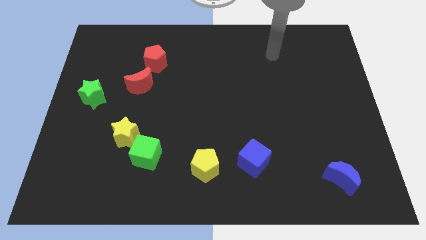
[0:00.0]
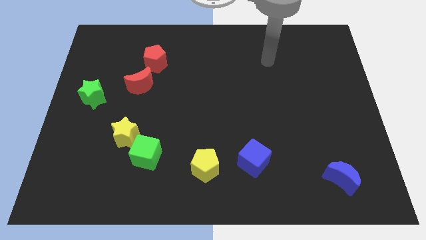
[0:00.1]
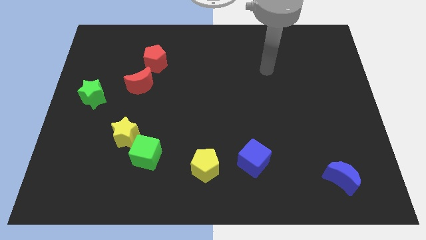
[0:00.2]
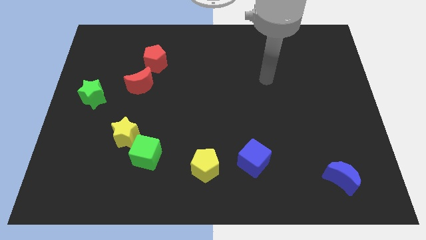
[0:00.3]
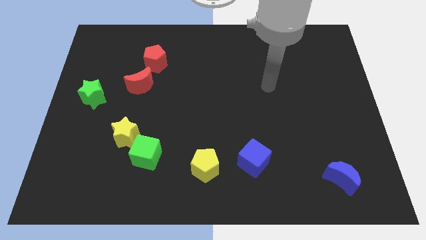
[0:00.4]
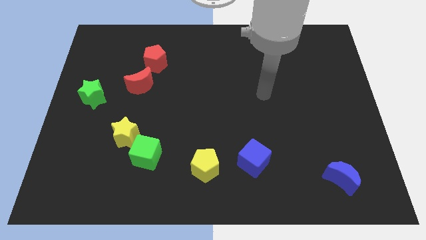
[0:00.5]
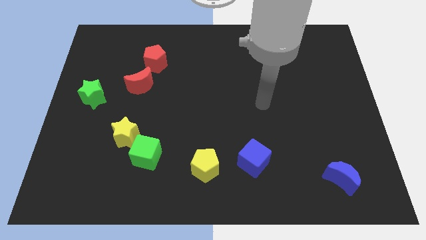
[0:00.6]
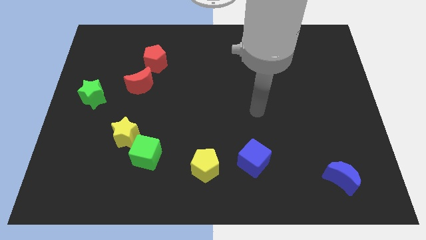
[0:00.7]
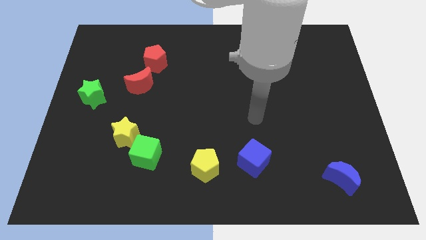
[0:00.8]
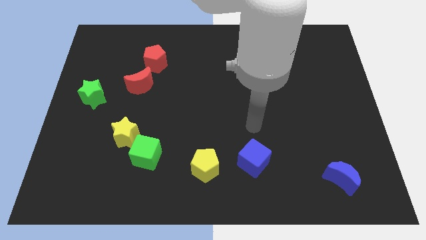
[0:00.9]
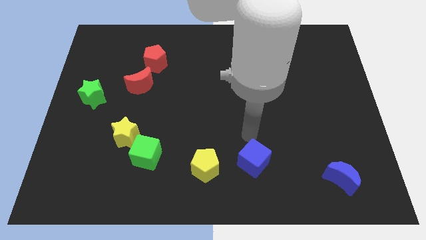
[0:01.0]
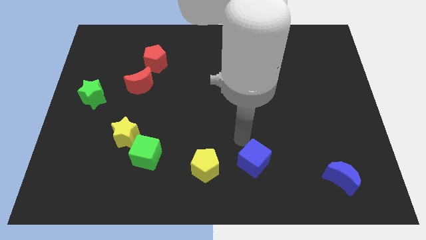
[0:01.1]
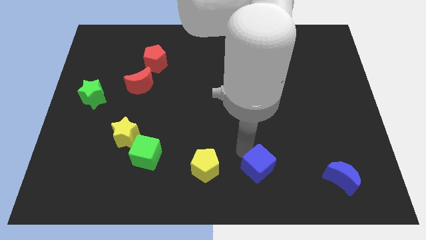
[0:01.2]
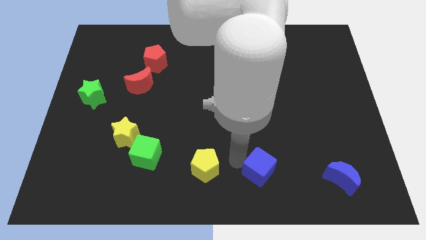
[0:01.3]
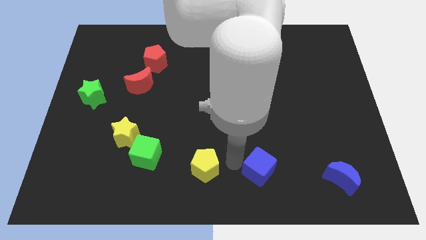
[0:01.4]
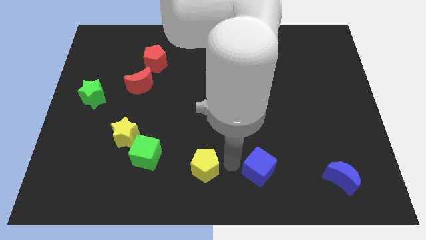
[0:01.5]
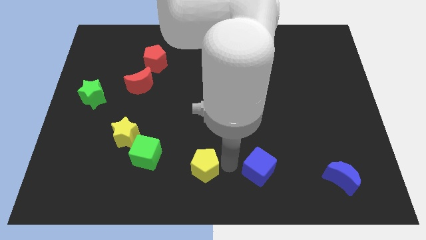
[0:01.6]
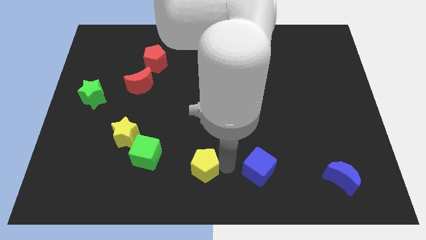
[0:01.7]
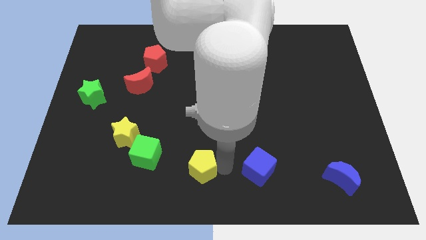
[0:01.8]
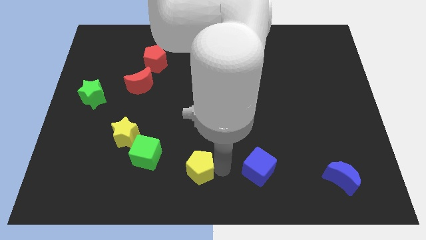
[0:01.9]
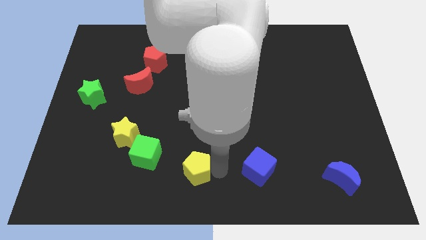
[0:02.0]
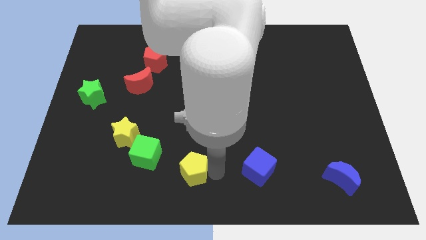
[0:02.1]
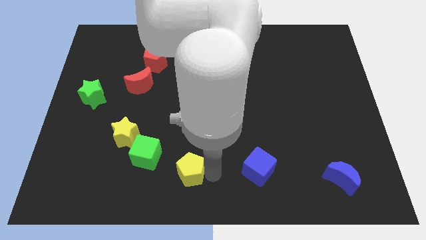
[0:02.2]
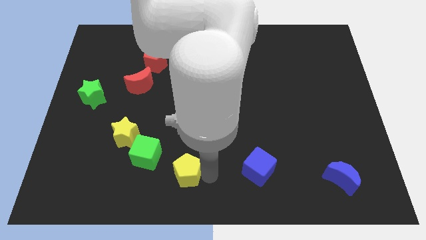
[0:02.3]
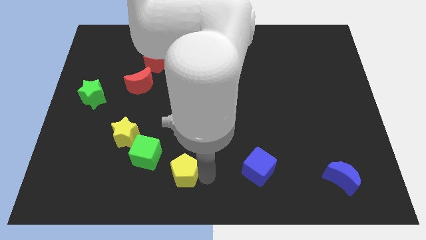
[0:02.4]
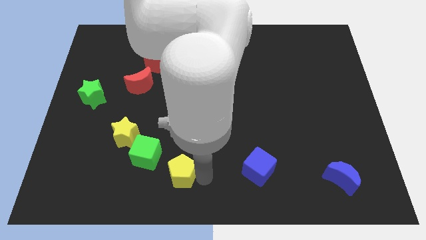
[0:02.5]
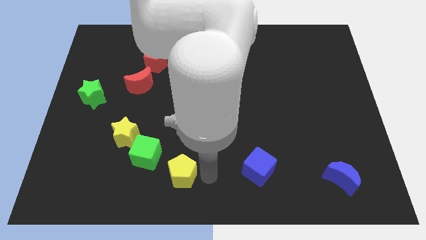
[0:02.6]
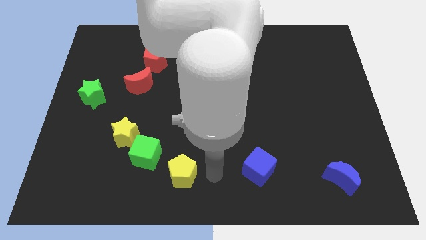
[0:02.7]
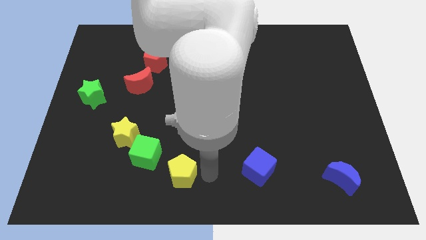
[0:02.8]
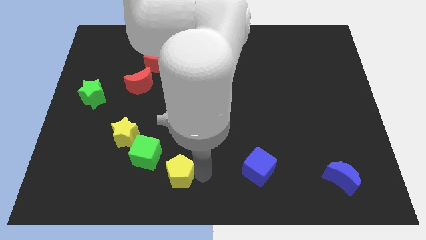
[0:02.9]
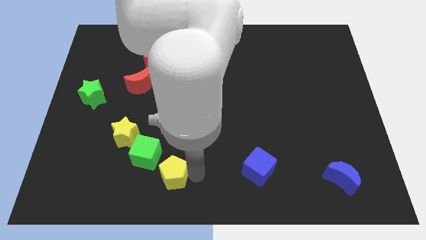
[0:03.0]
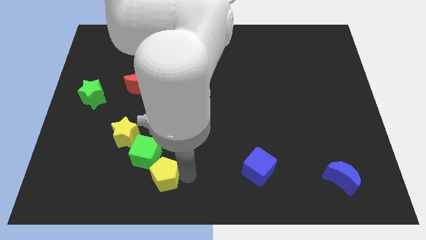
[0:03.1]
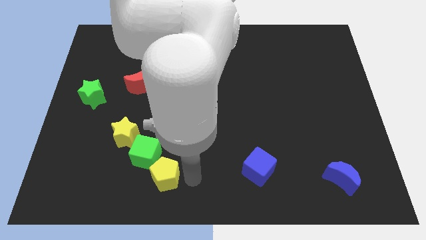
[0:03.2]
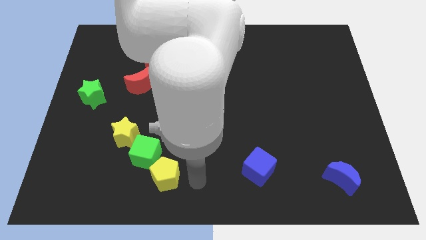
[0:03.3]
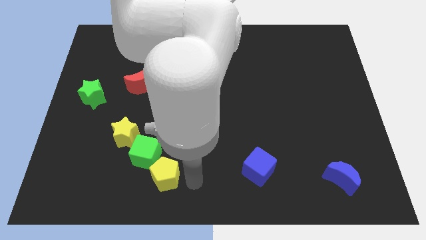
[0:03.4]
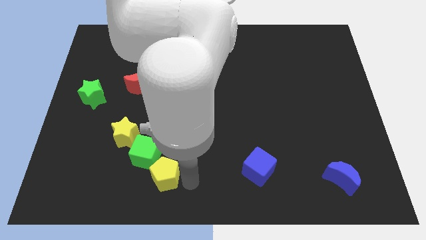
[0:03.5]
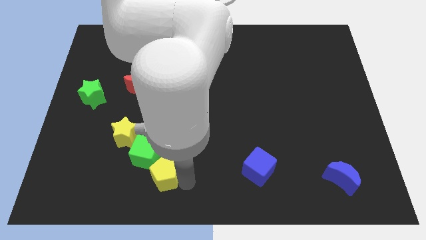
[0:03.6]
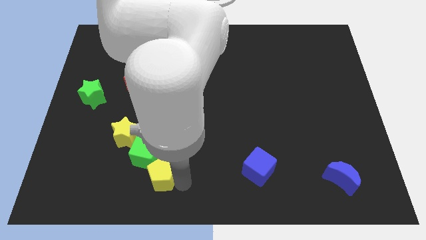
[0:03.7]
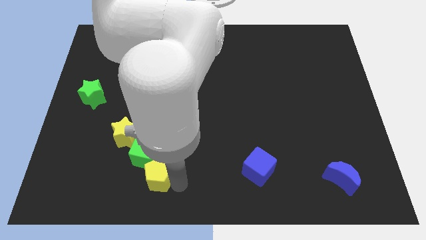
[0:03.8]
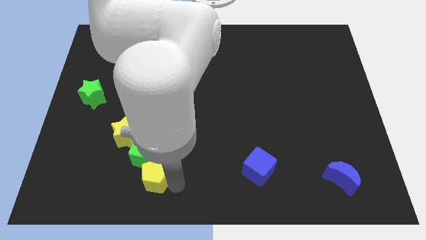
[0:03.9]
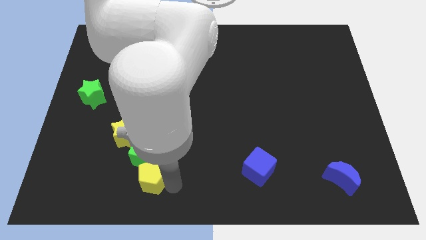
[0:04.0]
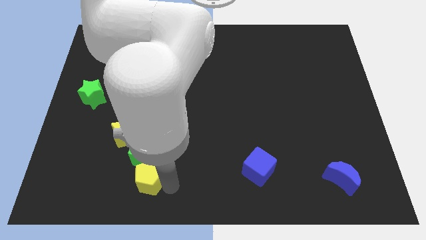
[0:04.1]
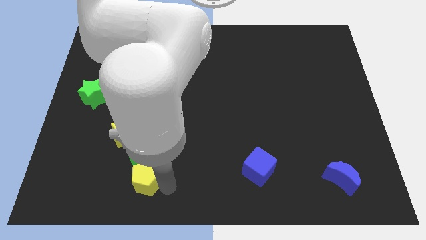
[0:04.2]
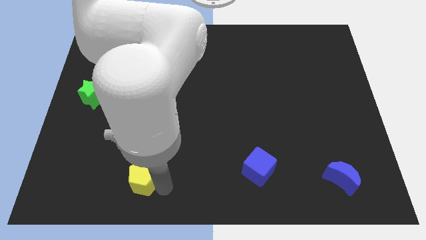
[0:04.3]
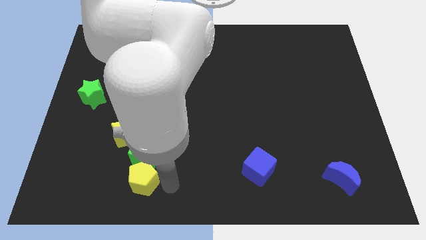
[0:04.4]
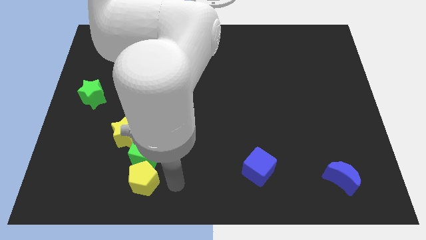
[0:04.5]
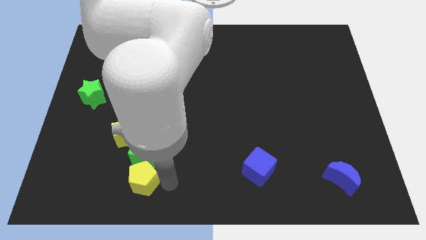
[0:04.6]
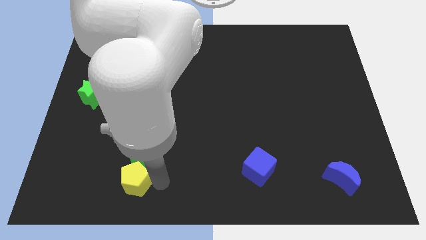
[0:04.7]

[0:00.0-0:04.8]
push the yellow pentagon to the bottom of the yellow star

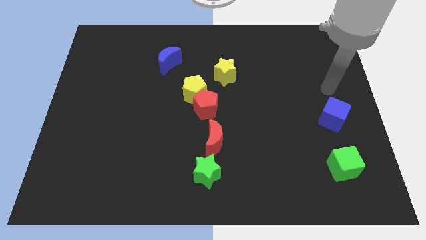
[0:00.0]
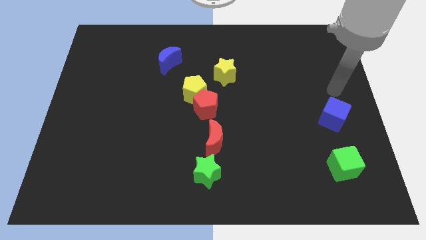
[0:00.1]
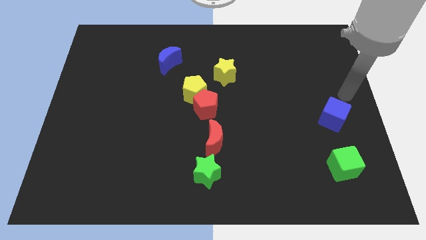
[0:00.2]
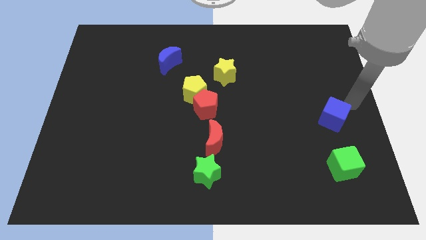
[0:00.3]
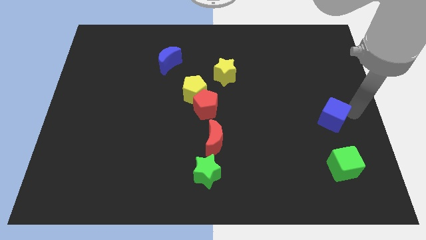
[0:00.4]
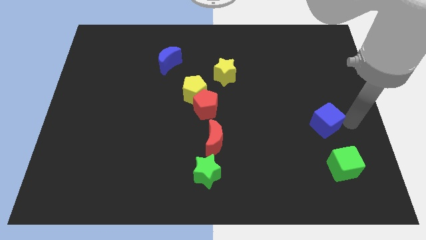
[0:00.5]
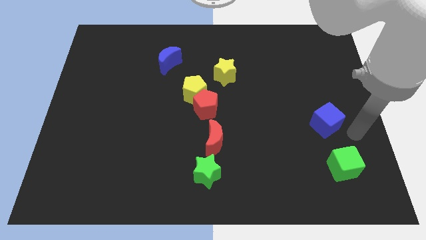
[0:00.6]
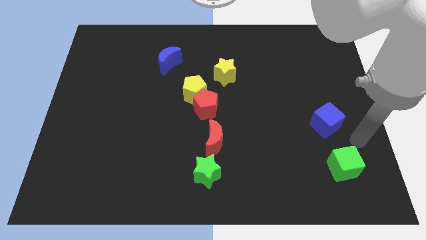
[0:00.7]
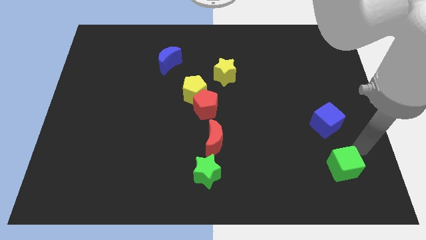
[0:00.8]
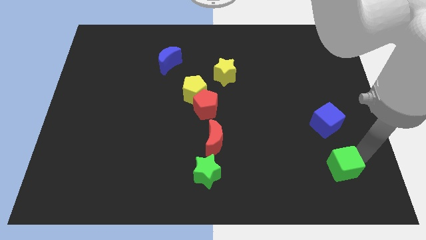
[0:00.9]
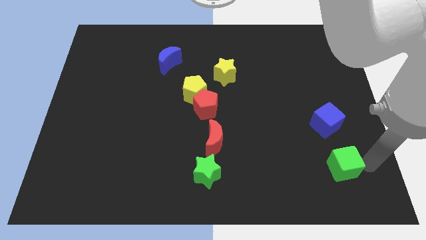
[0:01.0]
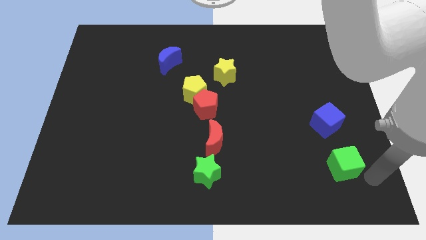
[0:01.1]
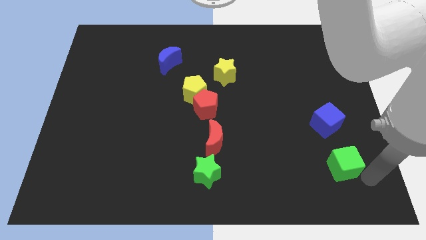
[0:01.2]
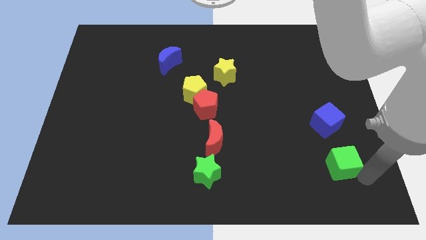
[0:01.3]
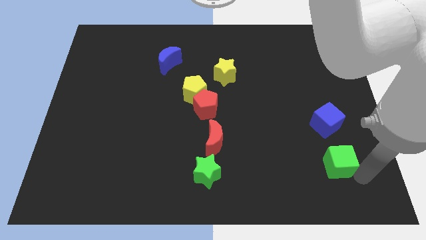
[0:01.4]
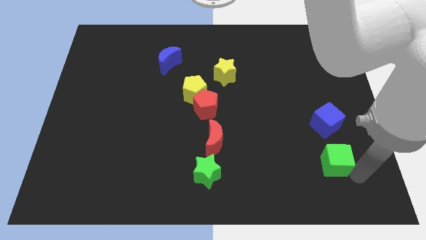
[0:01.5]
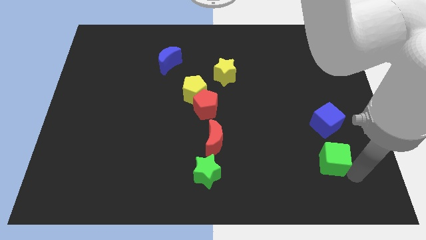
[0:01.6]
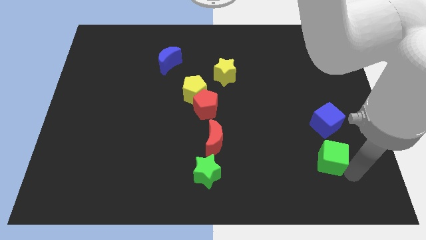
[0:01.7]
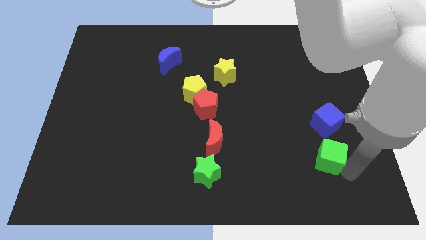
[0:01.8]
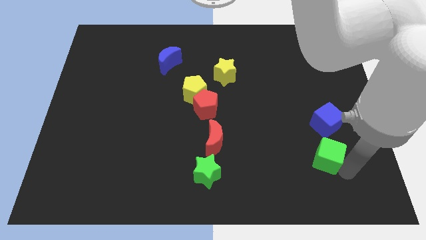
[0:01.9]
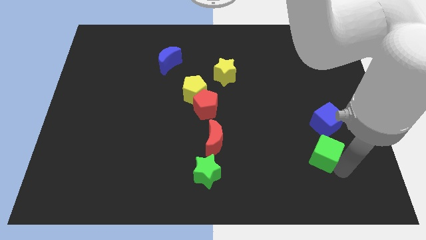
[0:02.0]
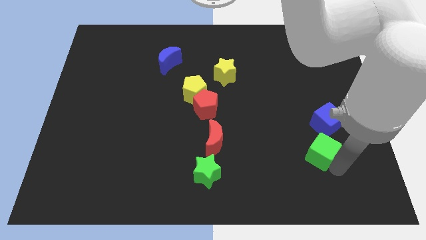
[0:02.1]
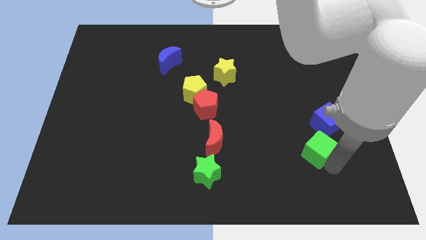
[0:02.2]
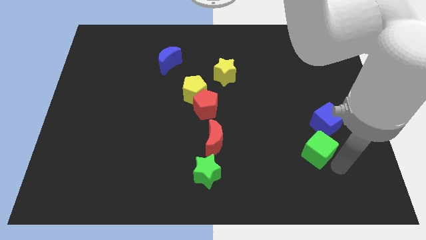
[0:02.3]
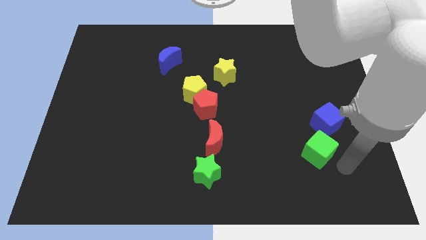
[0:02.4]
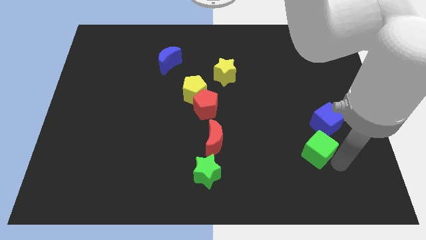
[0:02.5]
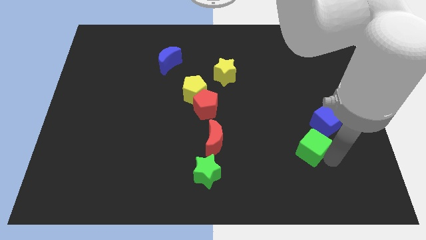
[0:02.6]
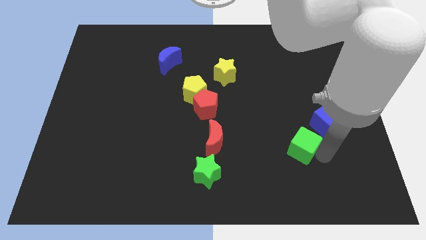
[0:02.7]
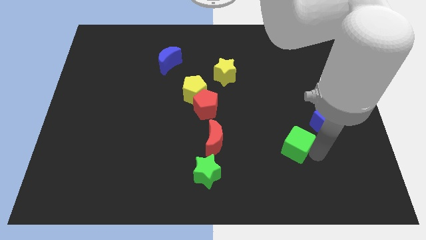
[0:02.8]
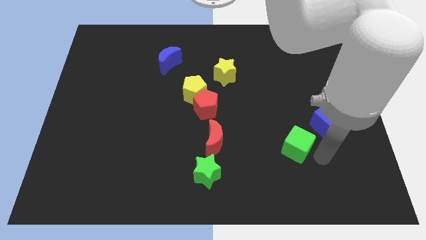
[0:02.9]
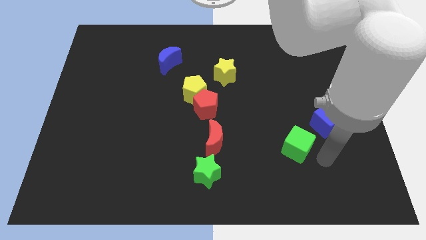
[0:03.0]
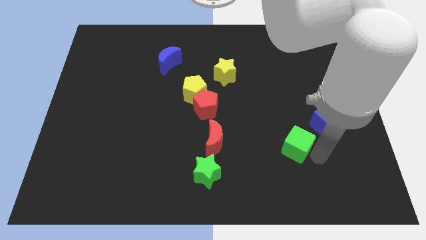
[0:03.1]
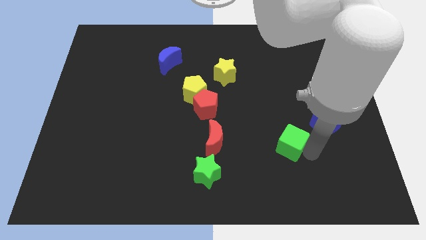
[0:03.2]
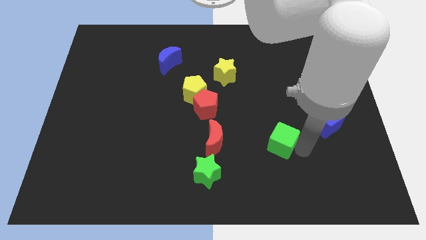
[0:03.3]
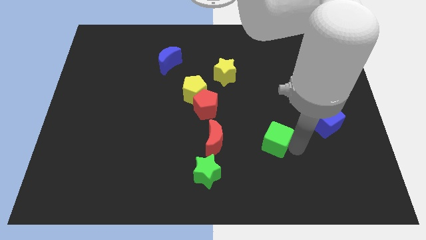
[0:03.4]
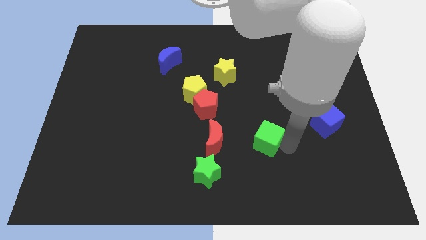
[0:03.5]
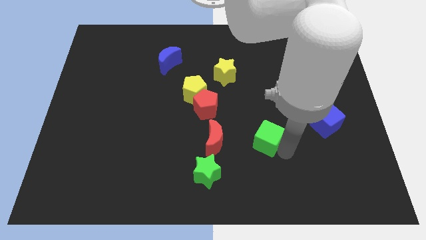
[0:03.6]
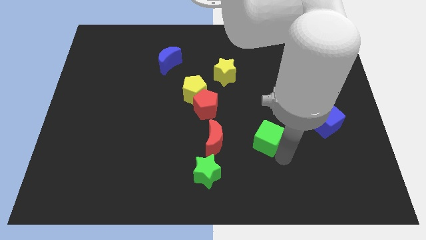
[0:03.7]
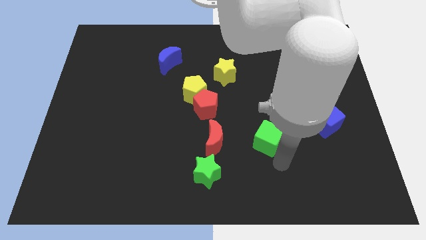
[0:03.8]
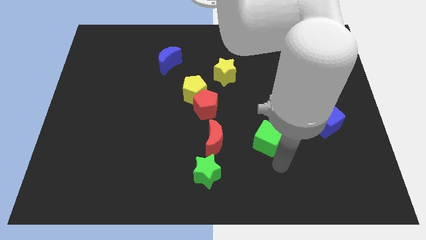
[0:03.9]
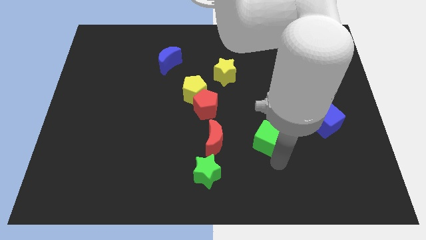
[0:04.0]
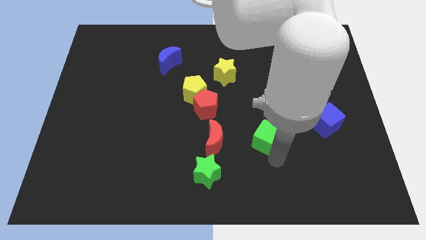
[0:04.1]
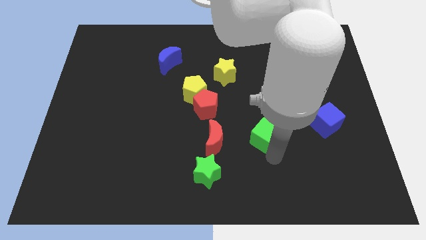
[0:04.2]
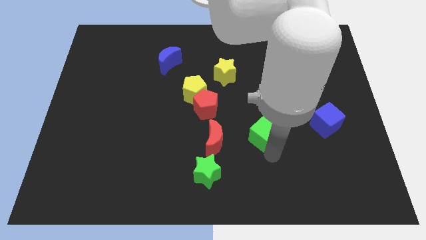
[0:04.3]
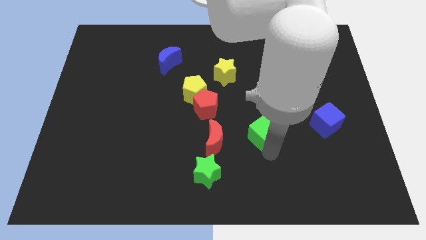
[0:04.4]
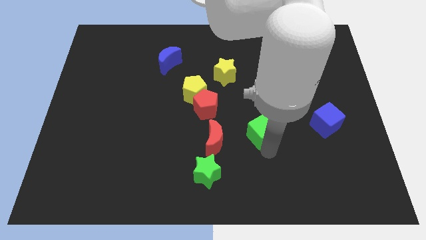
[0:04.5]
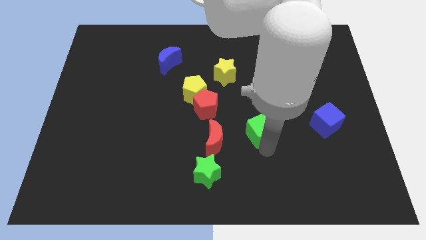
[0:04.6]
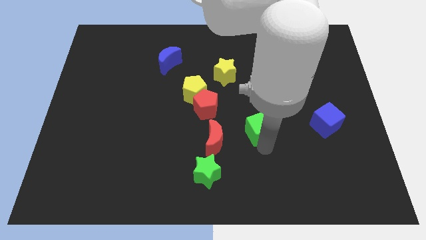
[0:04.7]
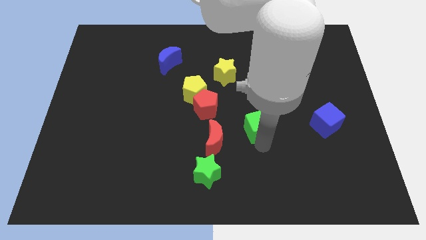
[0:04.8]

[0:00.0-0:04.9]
slide the green cube to the top right side of the red moon
